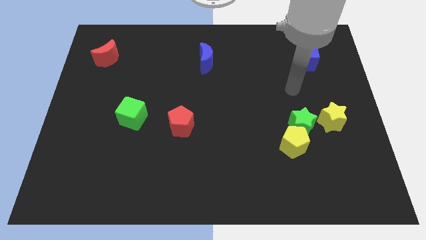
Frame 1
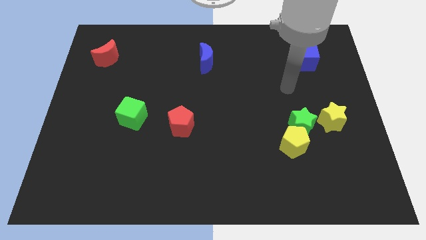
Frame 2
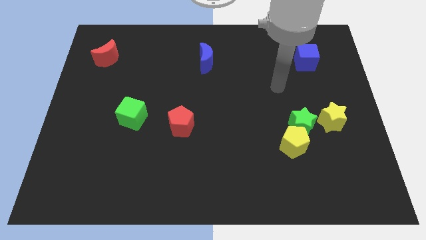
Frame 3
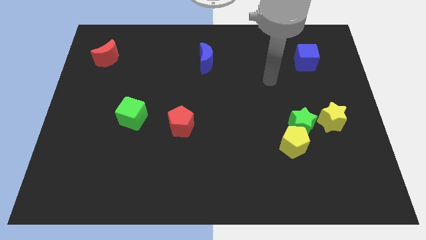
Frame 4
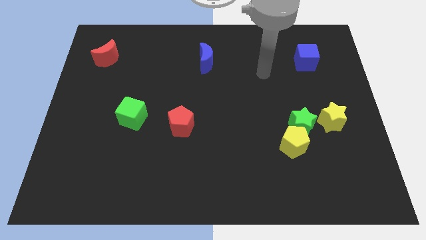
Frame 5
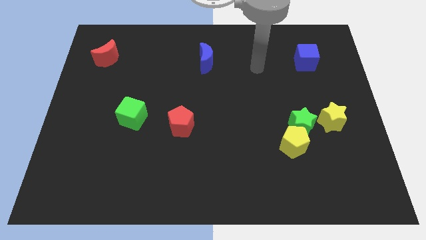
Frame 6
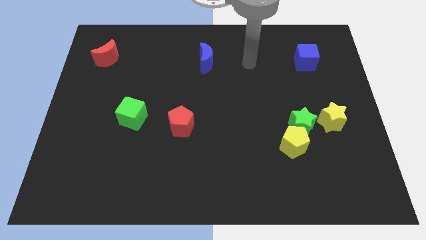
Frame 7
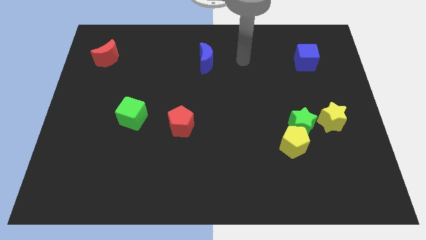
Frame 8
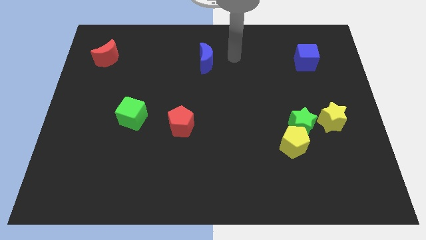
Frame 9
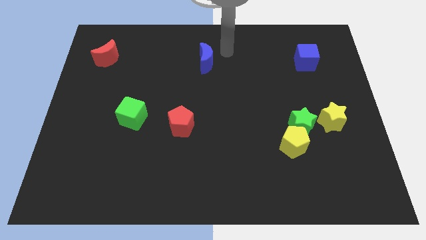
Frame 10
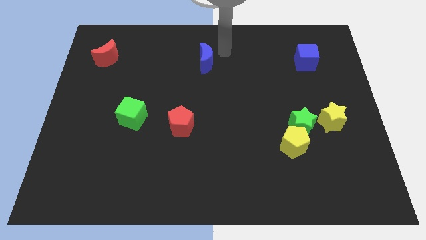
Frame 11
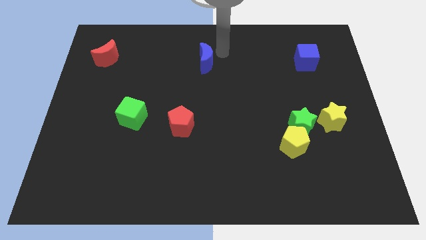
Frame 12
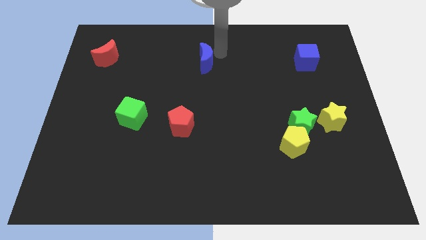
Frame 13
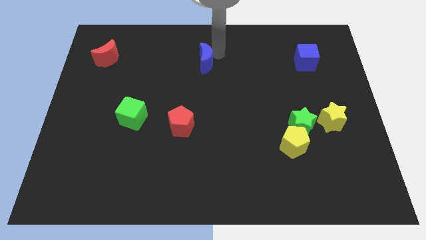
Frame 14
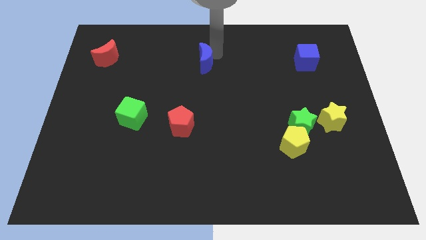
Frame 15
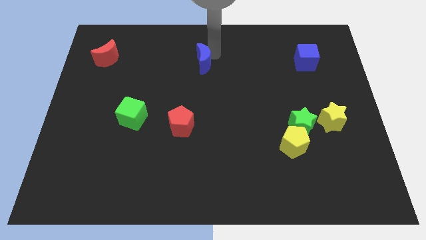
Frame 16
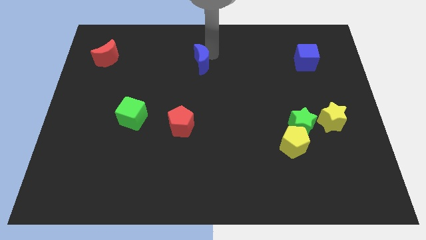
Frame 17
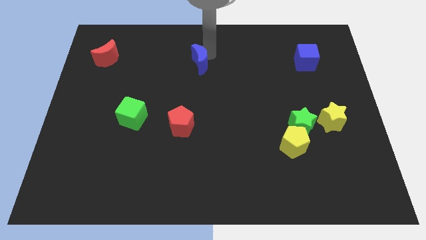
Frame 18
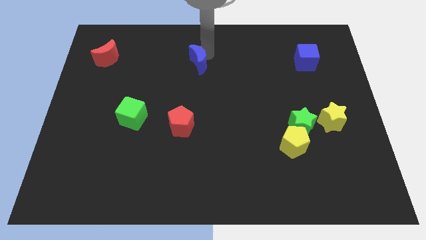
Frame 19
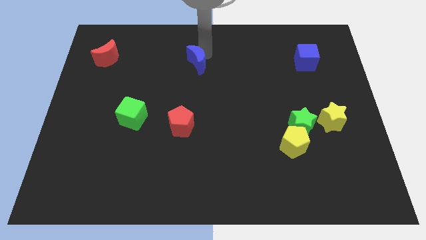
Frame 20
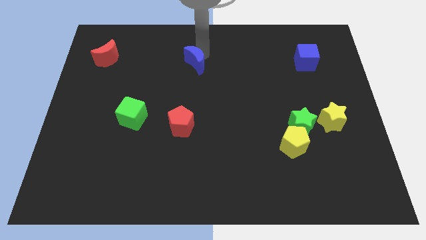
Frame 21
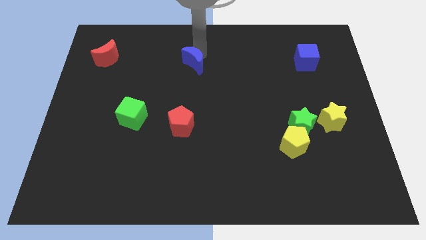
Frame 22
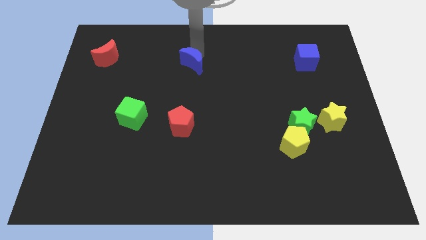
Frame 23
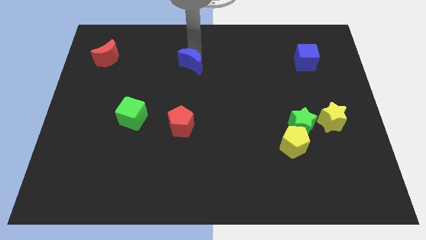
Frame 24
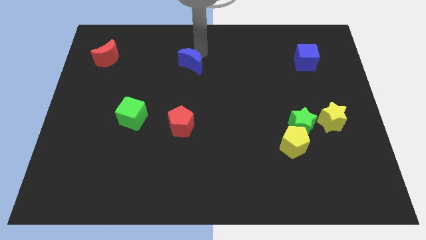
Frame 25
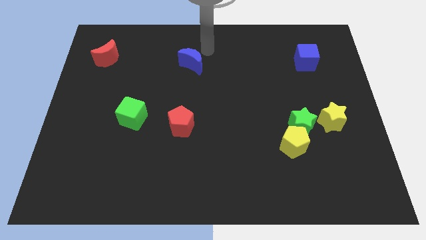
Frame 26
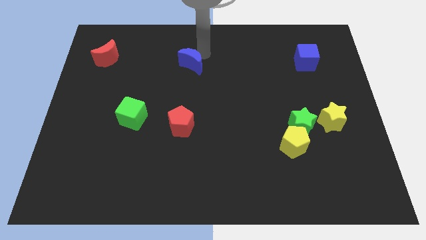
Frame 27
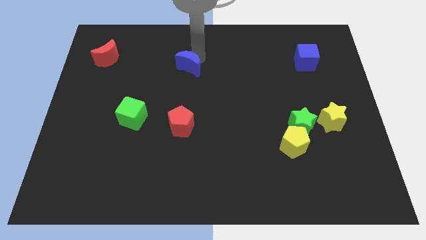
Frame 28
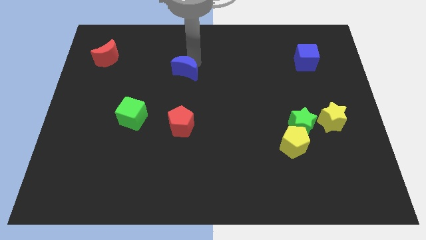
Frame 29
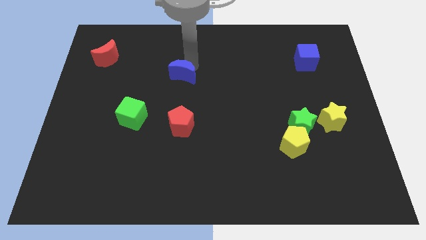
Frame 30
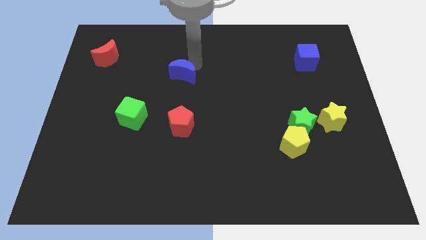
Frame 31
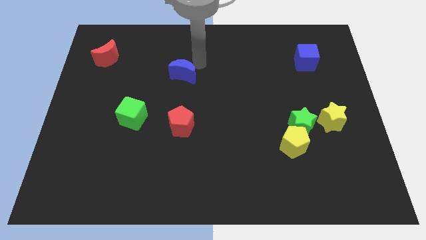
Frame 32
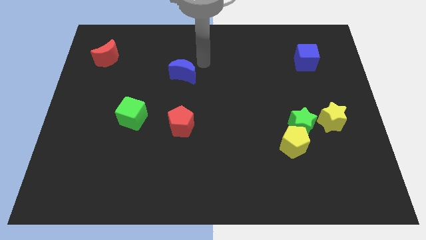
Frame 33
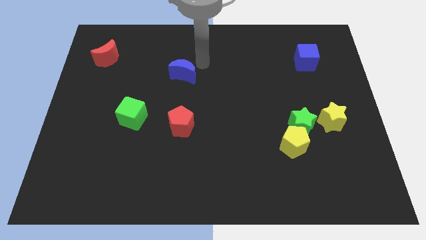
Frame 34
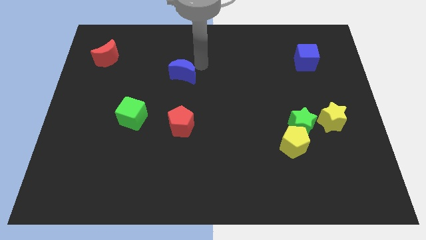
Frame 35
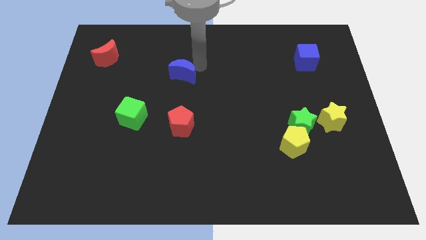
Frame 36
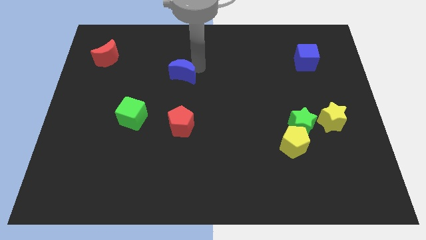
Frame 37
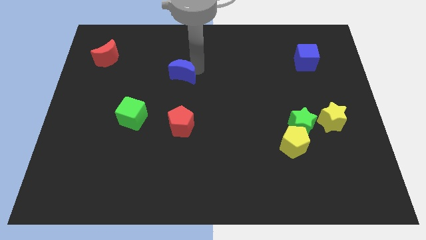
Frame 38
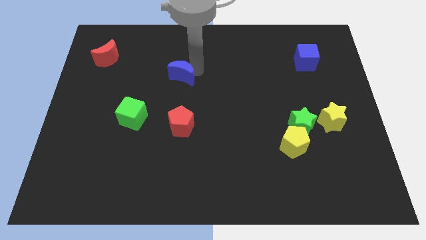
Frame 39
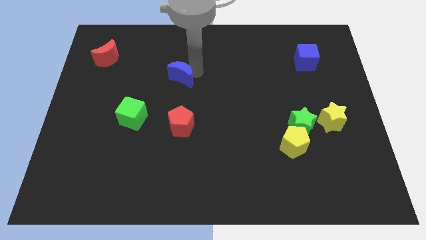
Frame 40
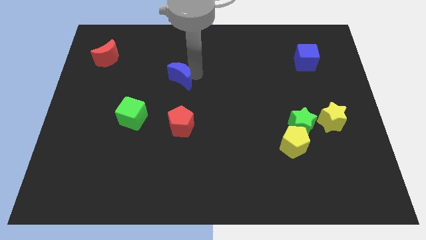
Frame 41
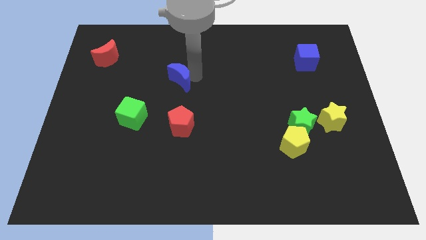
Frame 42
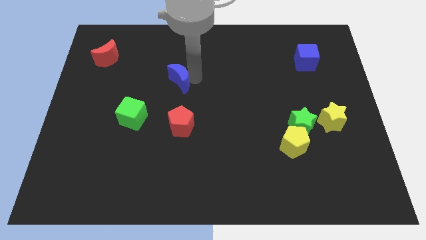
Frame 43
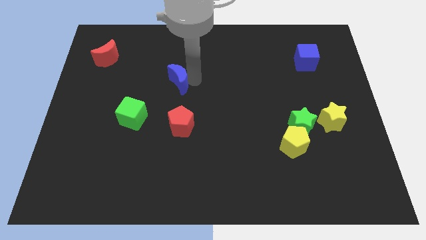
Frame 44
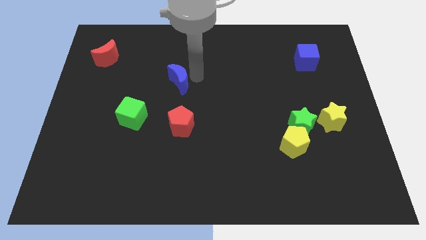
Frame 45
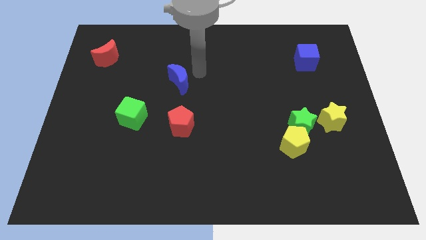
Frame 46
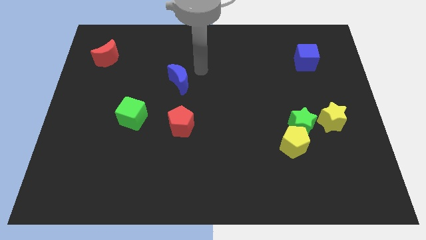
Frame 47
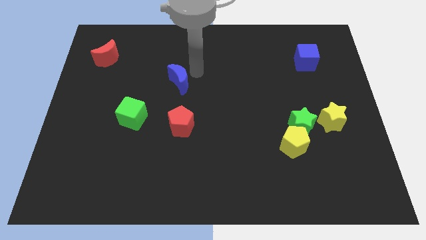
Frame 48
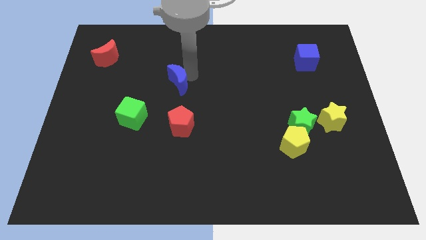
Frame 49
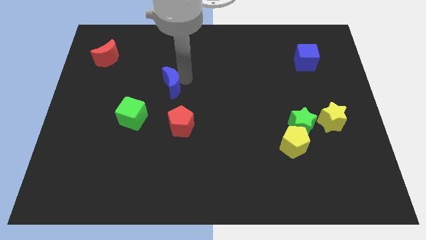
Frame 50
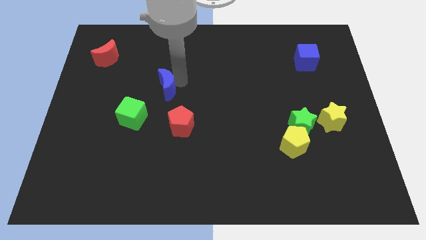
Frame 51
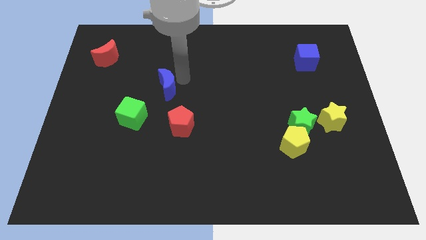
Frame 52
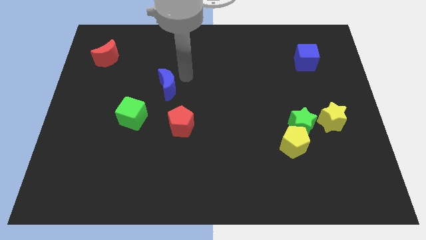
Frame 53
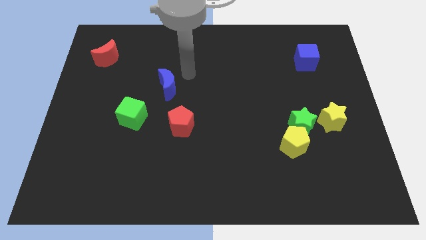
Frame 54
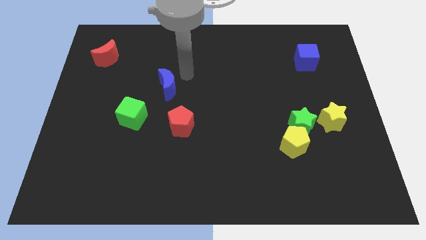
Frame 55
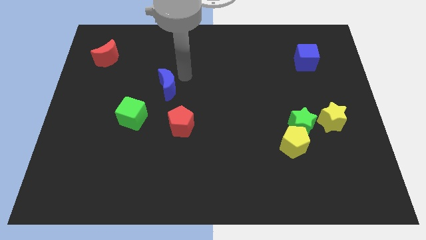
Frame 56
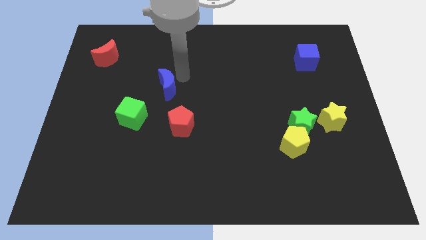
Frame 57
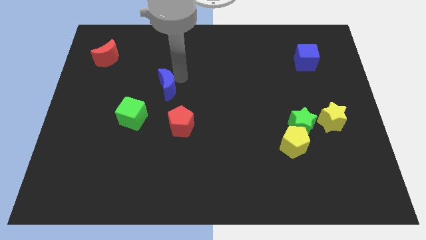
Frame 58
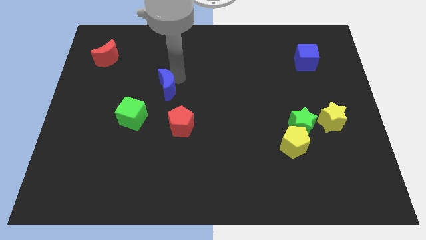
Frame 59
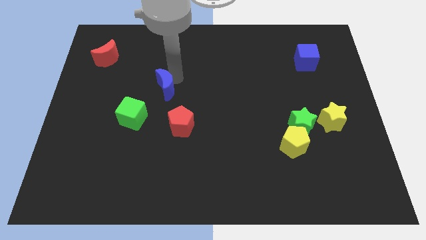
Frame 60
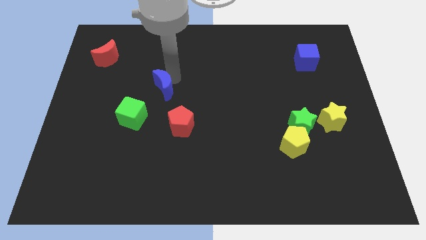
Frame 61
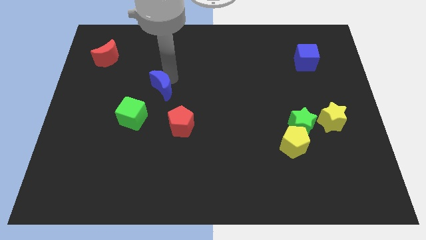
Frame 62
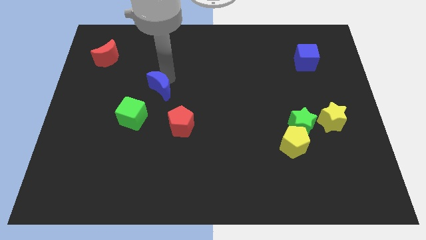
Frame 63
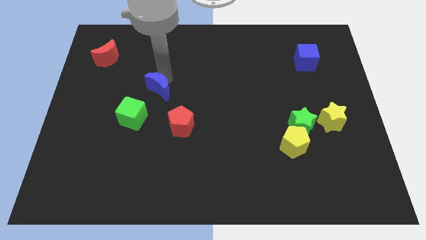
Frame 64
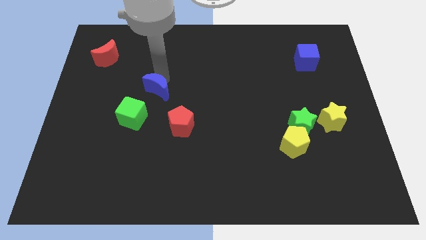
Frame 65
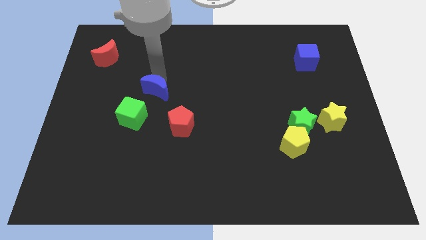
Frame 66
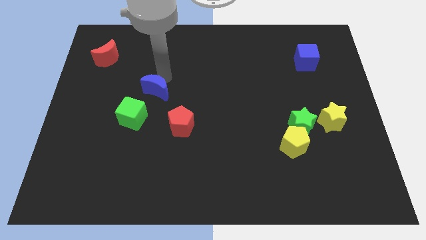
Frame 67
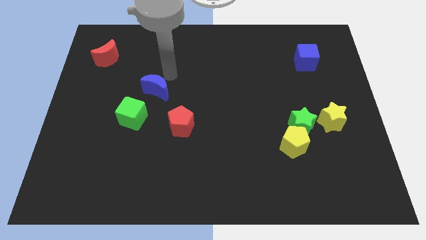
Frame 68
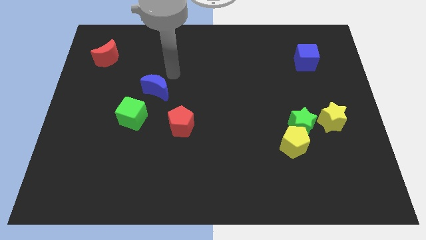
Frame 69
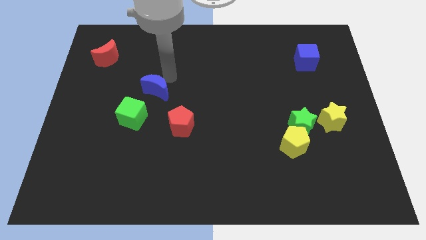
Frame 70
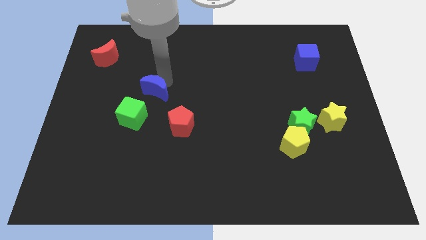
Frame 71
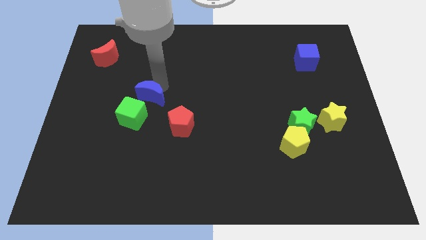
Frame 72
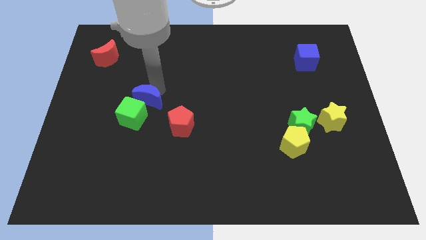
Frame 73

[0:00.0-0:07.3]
put the blue moon to the green cube

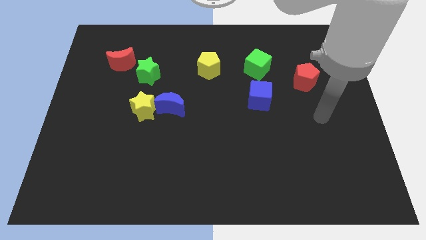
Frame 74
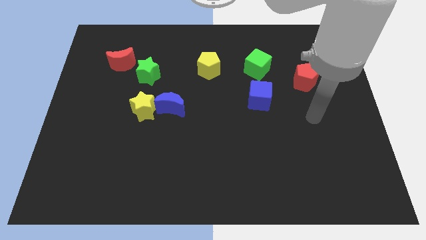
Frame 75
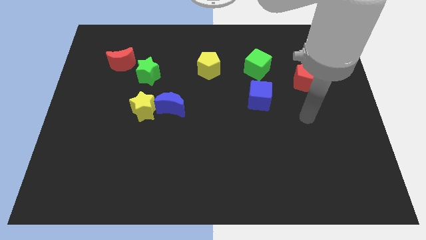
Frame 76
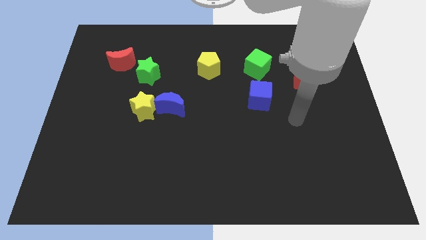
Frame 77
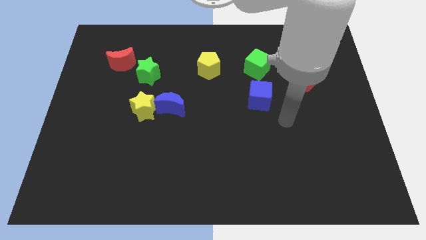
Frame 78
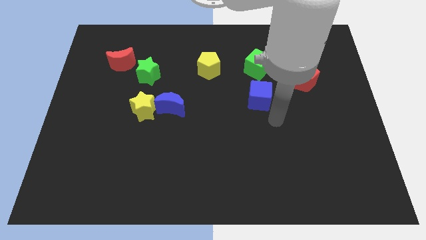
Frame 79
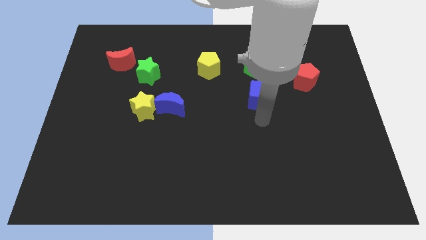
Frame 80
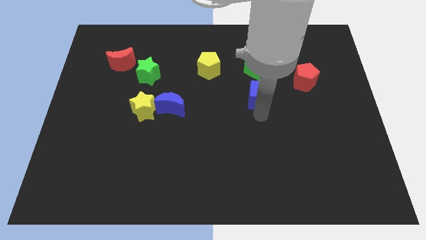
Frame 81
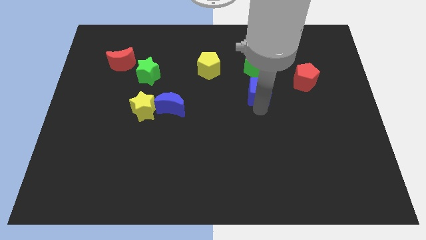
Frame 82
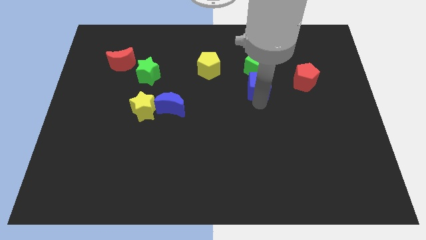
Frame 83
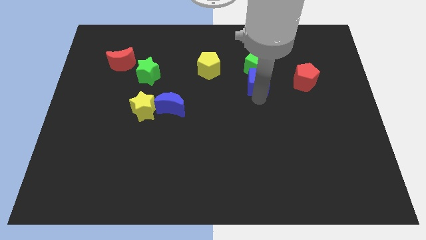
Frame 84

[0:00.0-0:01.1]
push the blue cube towards the green cube
